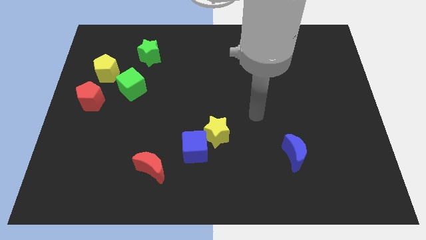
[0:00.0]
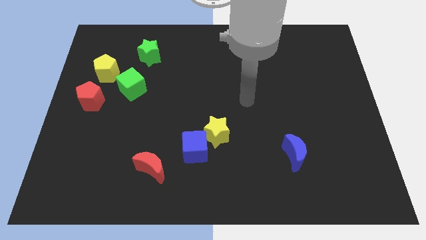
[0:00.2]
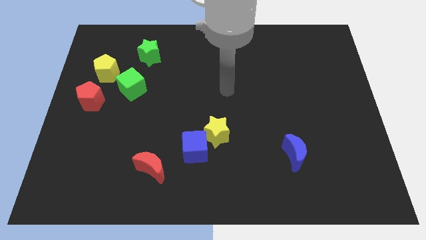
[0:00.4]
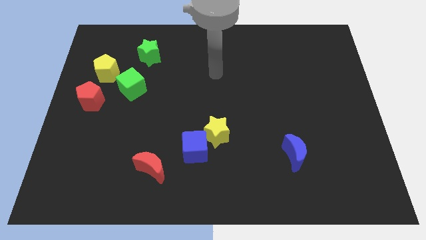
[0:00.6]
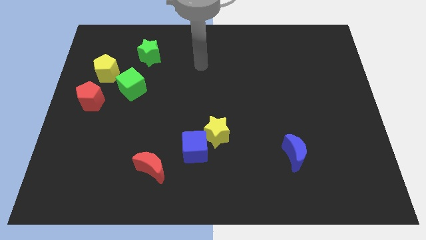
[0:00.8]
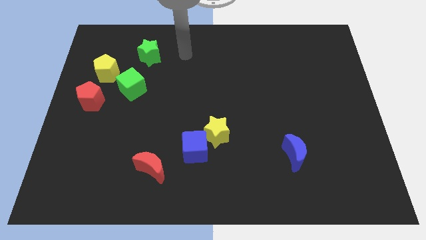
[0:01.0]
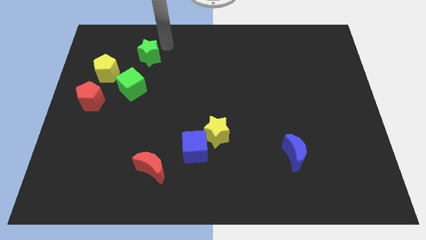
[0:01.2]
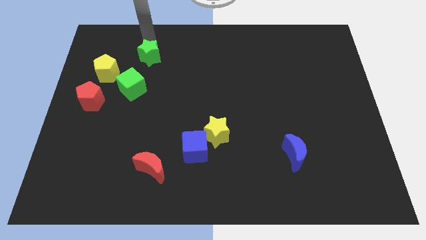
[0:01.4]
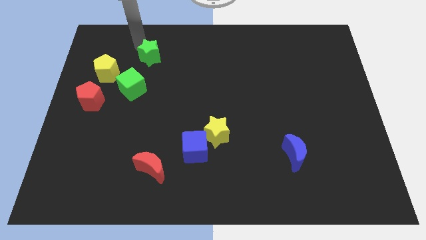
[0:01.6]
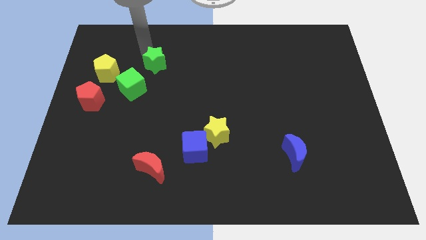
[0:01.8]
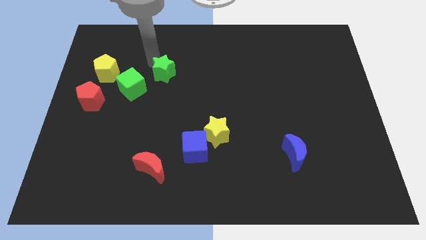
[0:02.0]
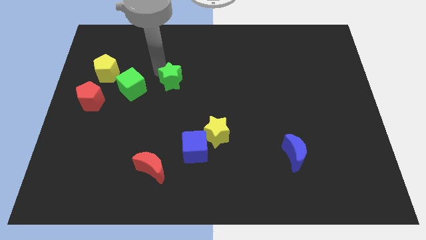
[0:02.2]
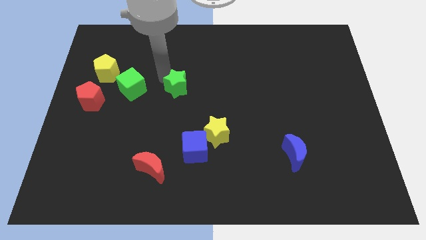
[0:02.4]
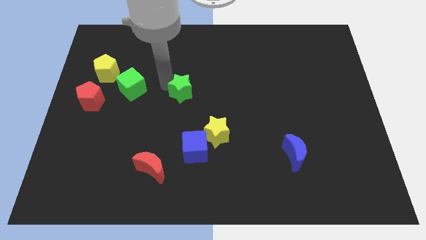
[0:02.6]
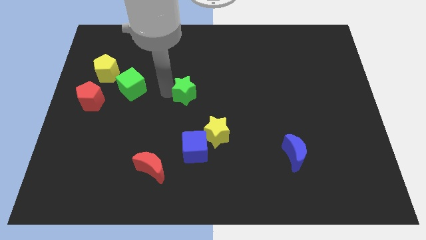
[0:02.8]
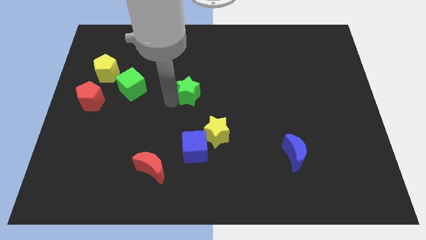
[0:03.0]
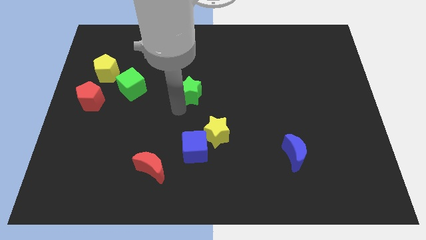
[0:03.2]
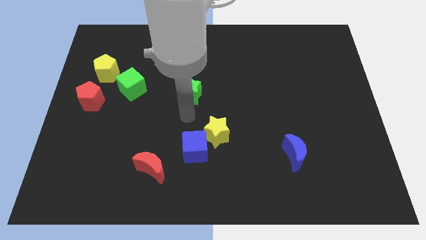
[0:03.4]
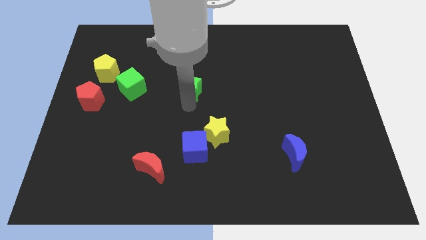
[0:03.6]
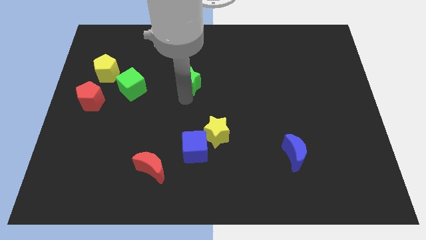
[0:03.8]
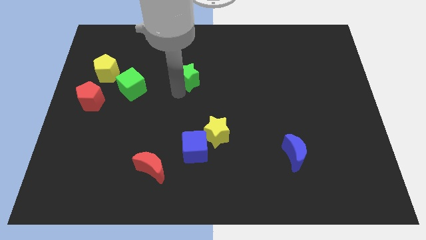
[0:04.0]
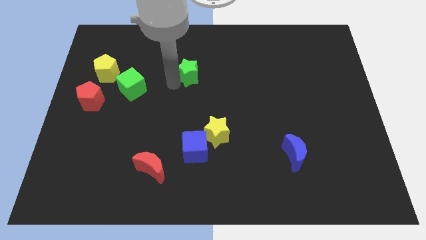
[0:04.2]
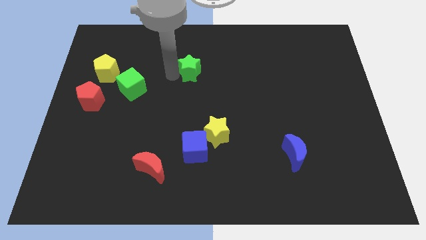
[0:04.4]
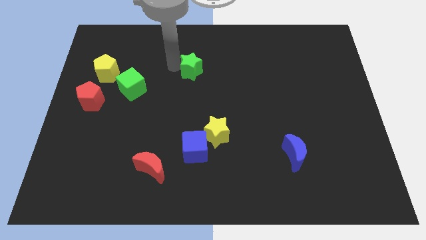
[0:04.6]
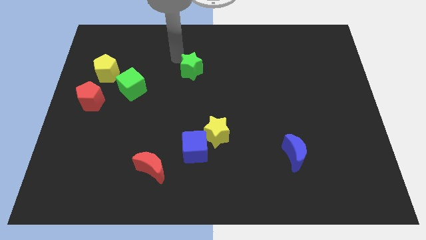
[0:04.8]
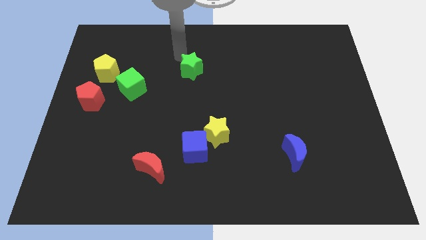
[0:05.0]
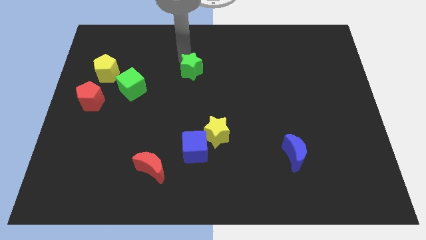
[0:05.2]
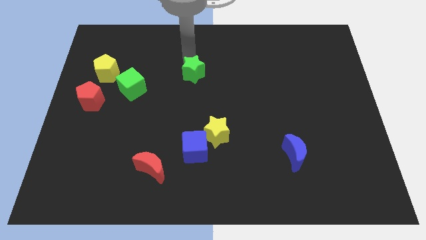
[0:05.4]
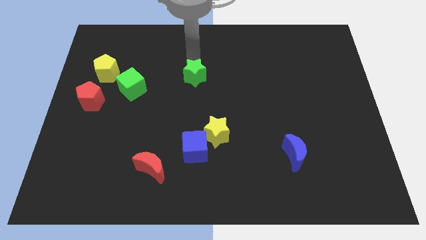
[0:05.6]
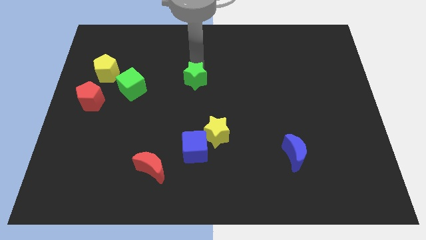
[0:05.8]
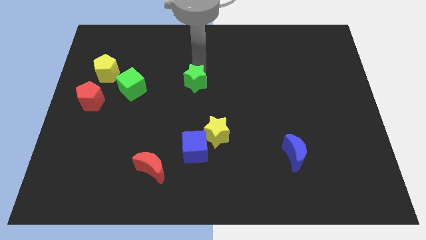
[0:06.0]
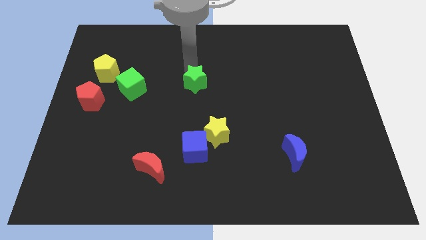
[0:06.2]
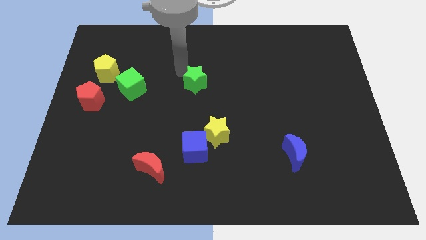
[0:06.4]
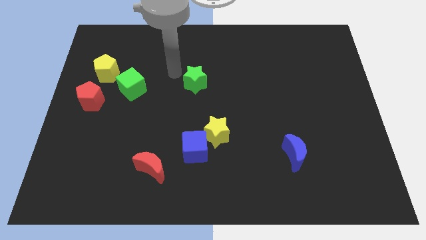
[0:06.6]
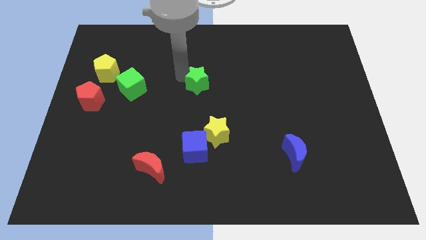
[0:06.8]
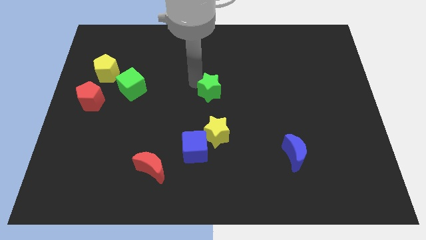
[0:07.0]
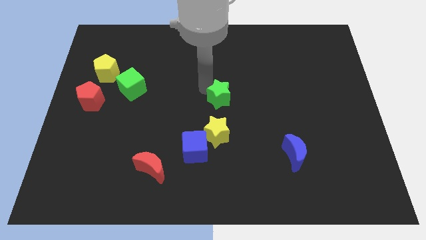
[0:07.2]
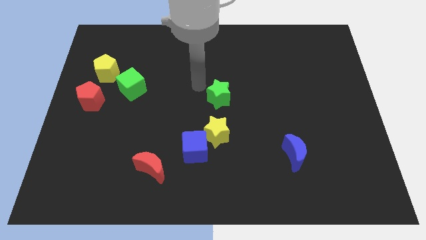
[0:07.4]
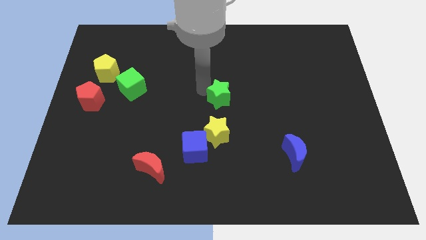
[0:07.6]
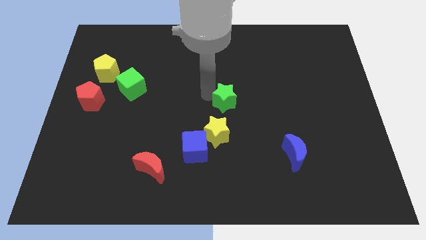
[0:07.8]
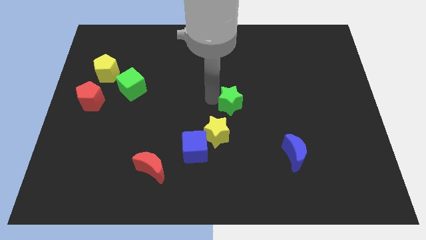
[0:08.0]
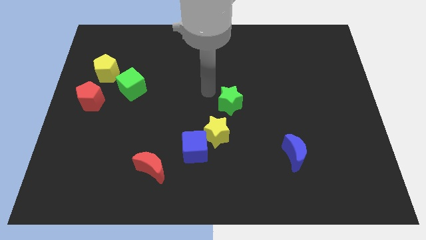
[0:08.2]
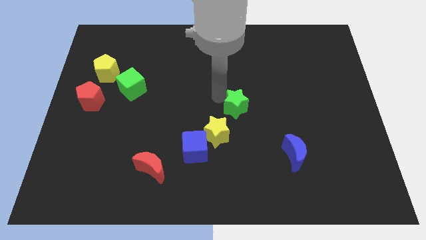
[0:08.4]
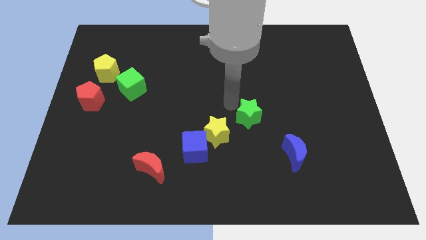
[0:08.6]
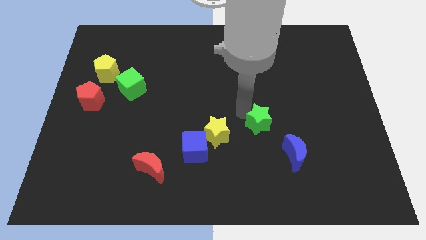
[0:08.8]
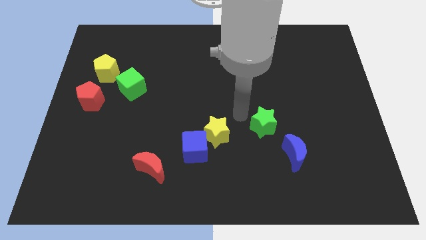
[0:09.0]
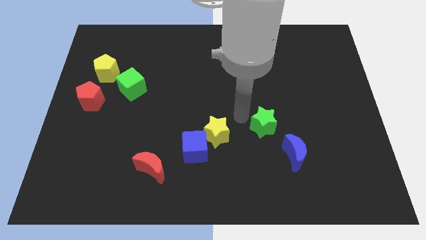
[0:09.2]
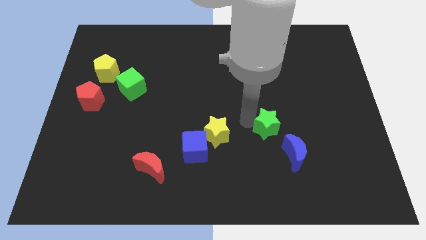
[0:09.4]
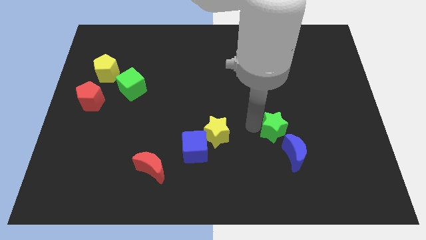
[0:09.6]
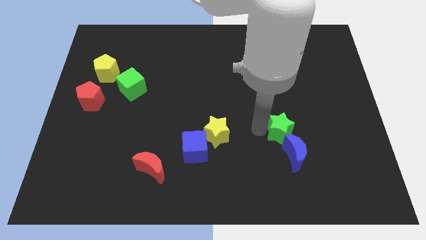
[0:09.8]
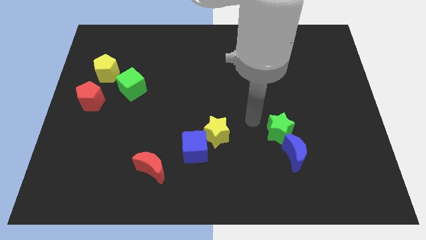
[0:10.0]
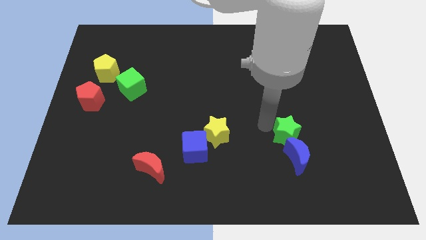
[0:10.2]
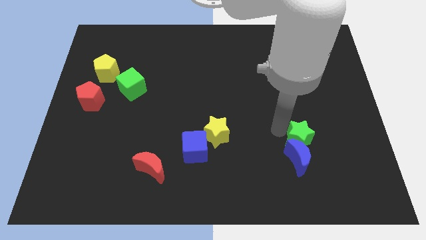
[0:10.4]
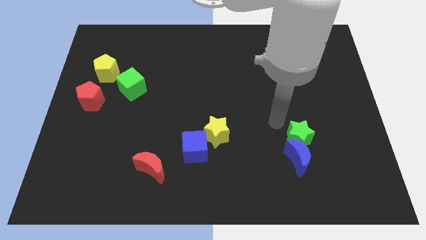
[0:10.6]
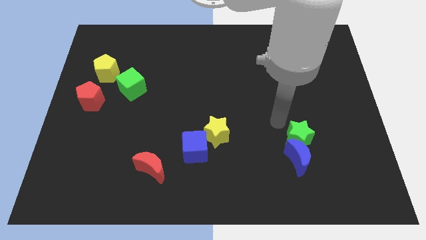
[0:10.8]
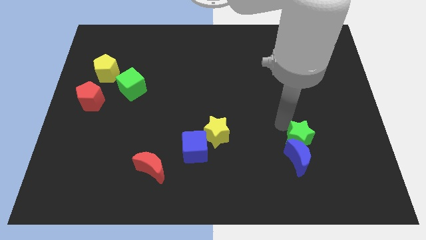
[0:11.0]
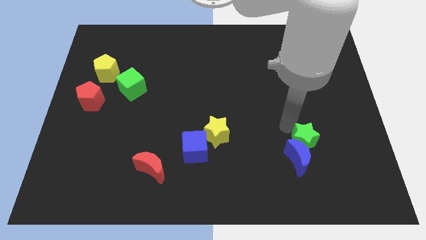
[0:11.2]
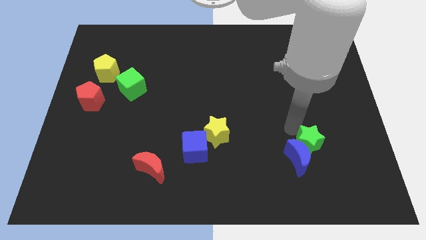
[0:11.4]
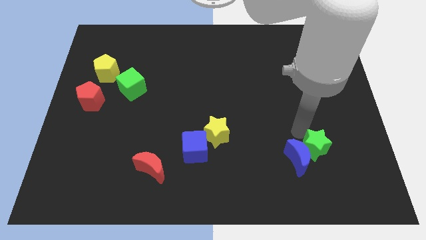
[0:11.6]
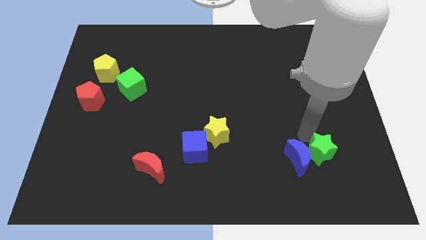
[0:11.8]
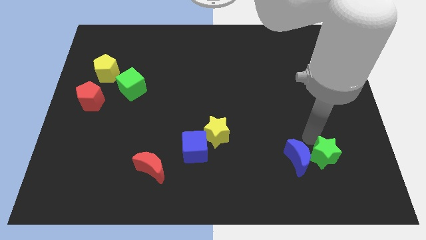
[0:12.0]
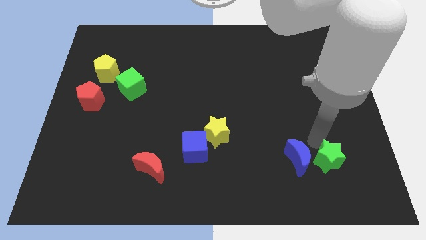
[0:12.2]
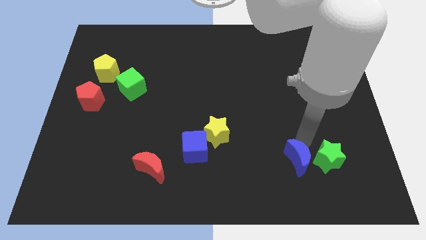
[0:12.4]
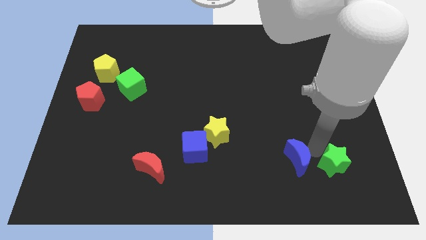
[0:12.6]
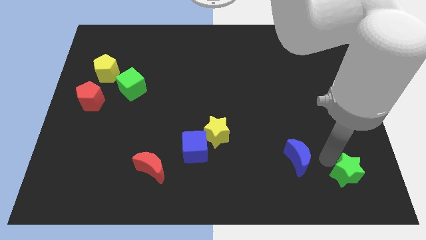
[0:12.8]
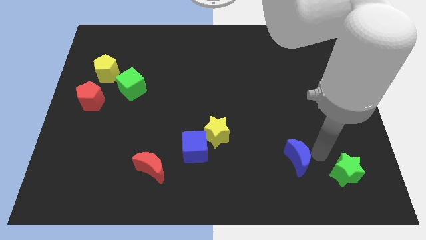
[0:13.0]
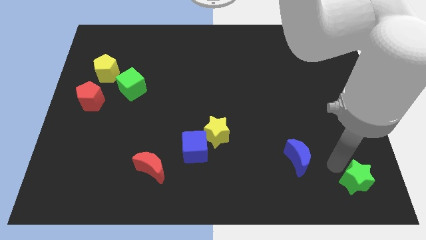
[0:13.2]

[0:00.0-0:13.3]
push the green star to the bottom right corner

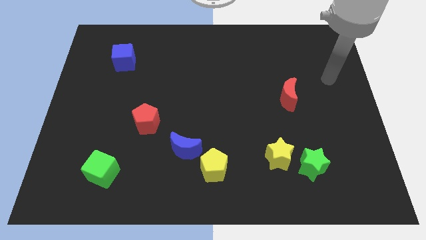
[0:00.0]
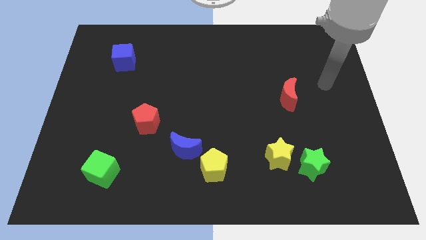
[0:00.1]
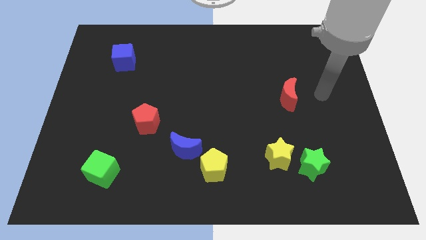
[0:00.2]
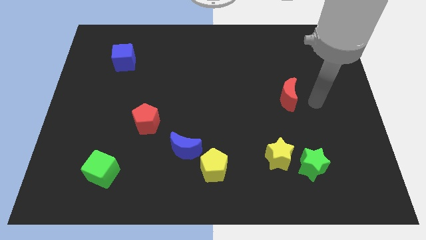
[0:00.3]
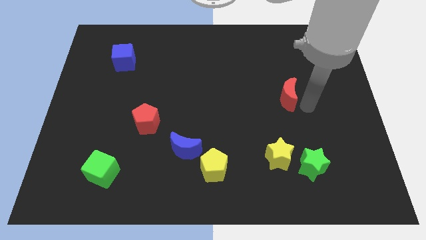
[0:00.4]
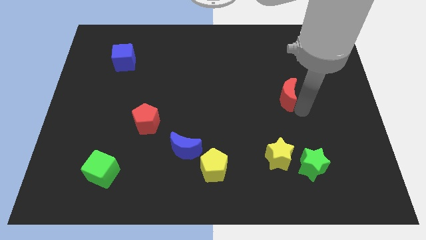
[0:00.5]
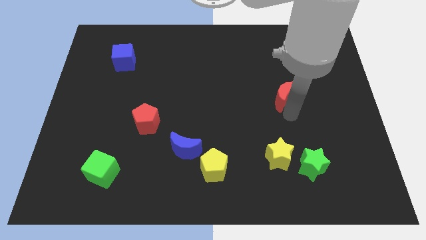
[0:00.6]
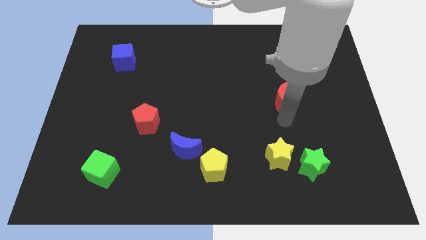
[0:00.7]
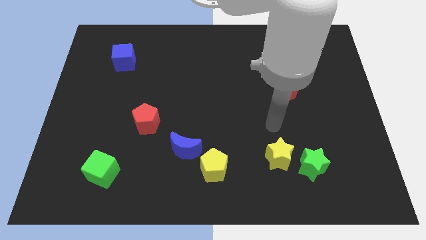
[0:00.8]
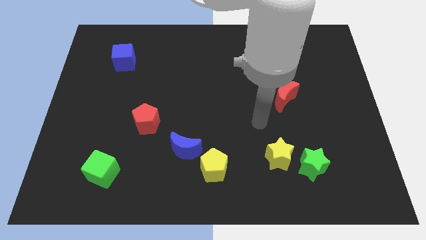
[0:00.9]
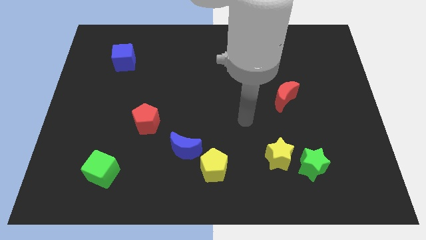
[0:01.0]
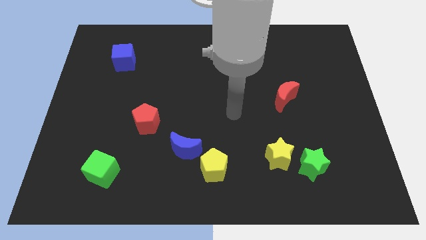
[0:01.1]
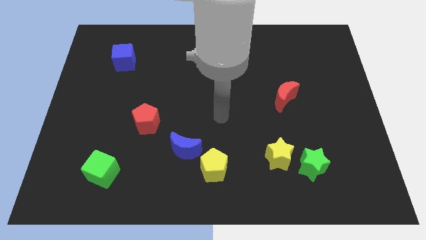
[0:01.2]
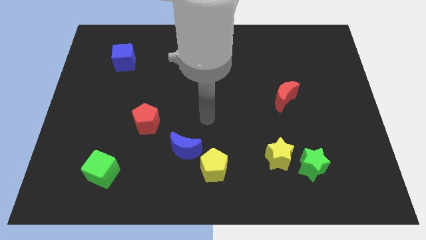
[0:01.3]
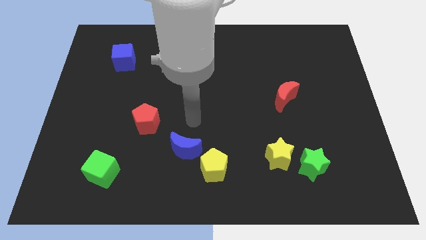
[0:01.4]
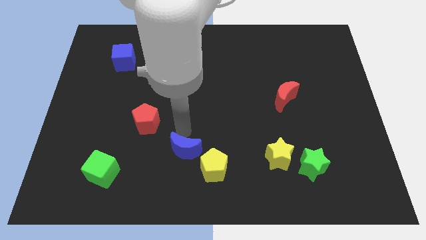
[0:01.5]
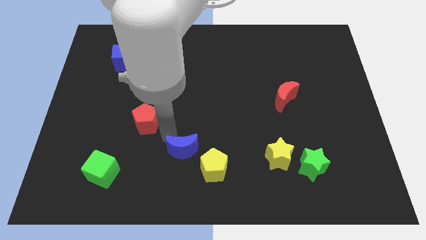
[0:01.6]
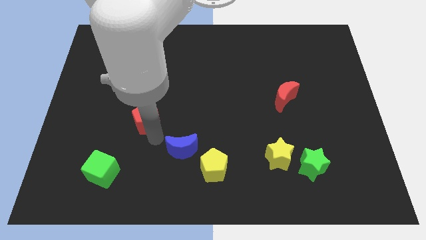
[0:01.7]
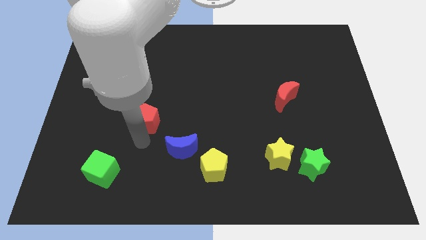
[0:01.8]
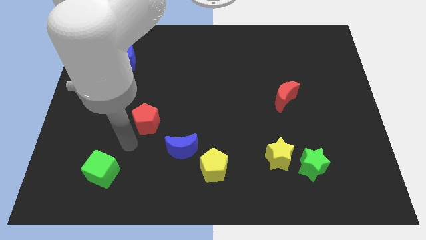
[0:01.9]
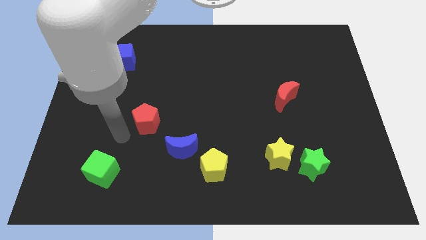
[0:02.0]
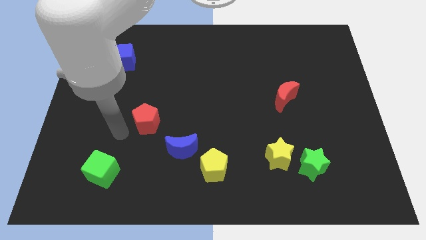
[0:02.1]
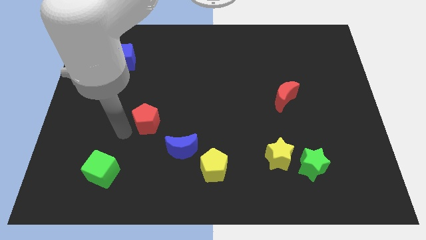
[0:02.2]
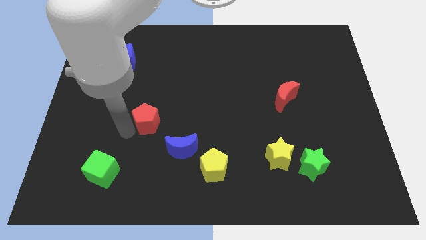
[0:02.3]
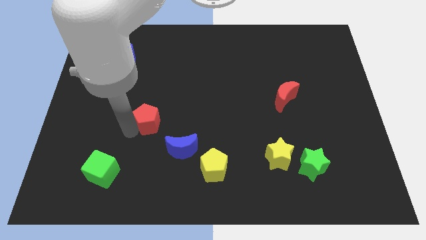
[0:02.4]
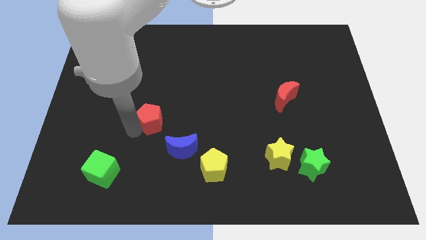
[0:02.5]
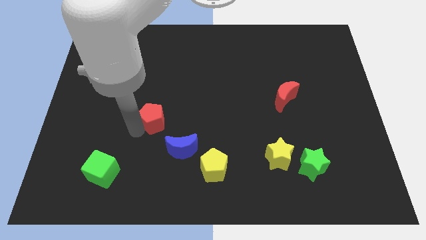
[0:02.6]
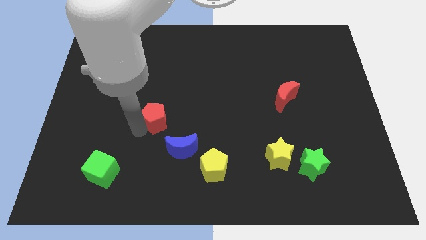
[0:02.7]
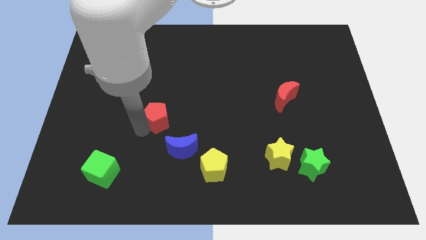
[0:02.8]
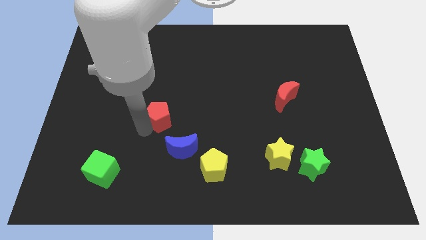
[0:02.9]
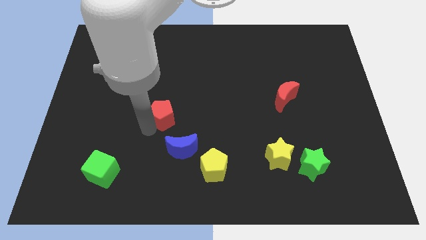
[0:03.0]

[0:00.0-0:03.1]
slide the red pentagon to the middle
